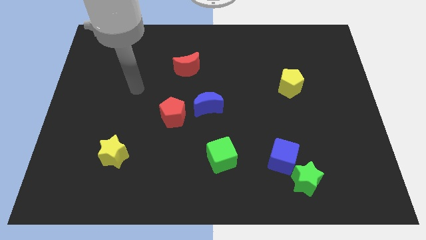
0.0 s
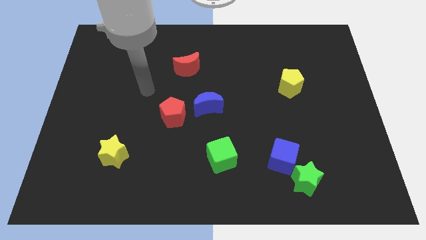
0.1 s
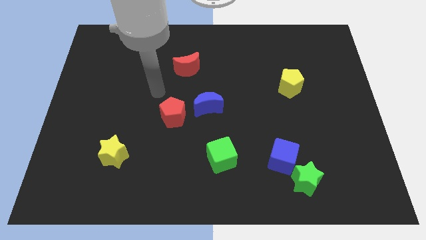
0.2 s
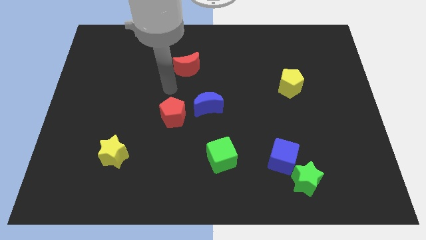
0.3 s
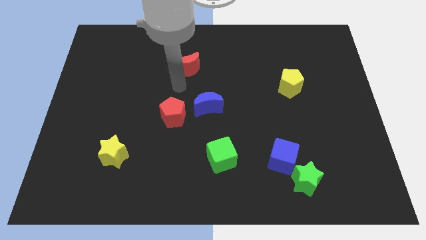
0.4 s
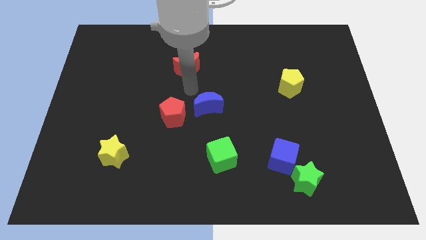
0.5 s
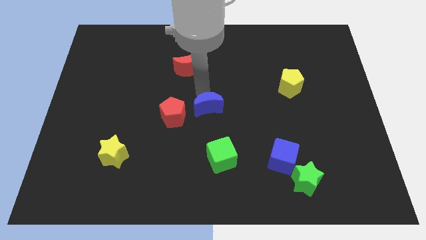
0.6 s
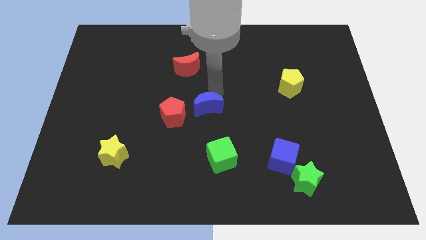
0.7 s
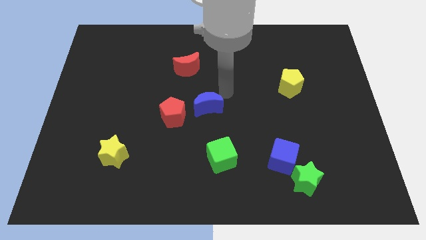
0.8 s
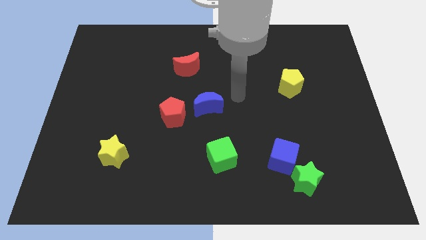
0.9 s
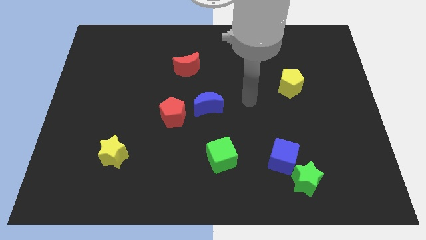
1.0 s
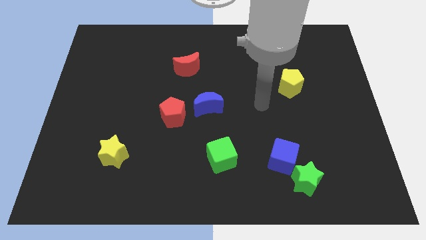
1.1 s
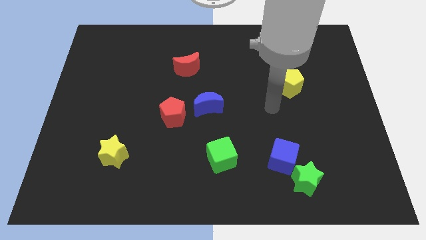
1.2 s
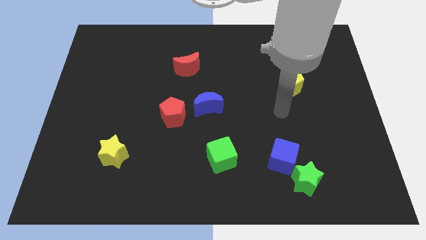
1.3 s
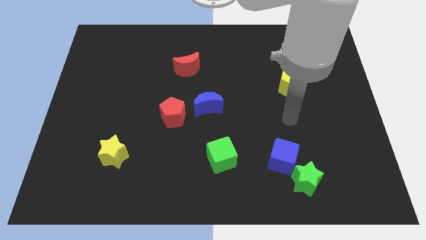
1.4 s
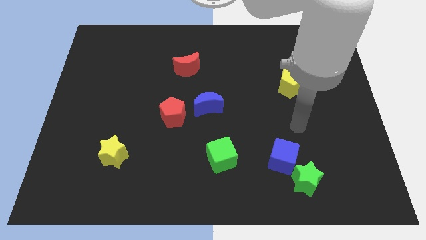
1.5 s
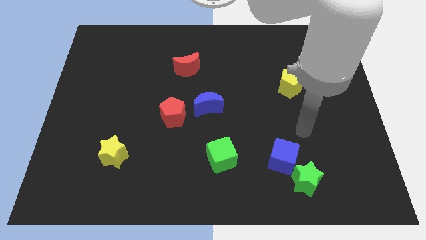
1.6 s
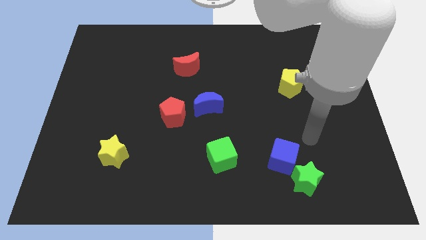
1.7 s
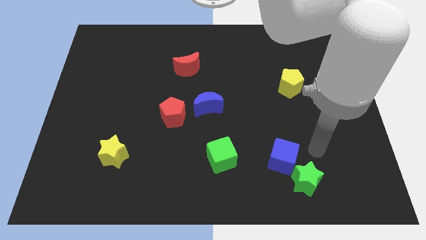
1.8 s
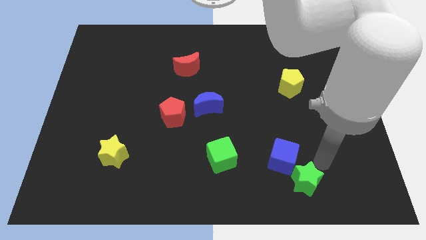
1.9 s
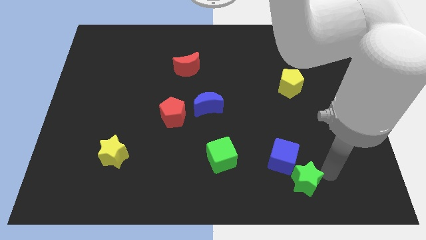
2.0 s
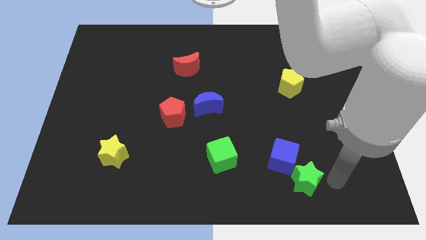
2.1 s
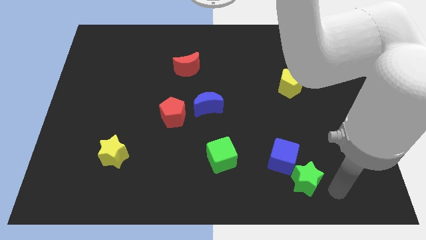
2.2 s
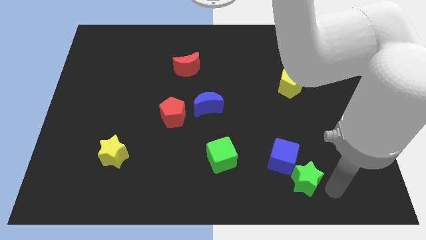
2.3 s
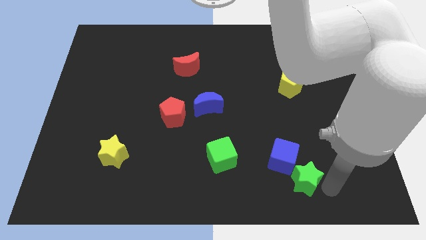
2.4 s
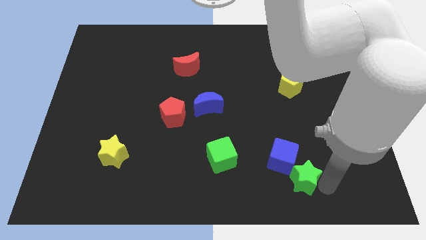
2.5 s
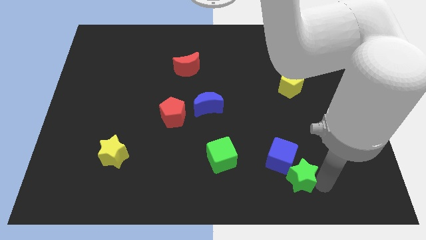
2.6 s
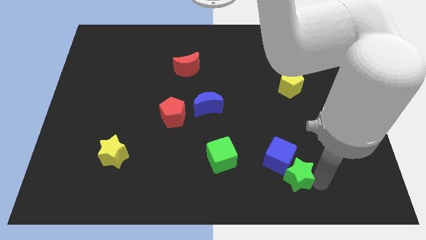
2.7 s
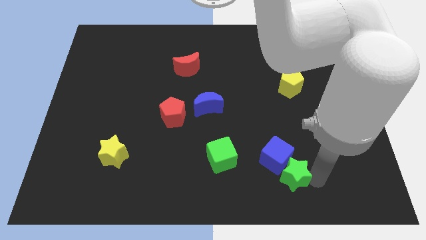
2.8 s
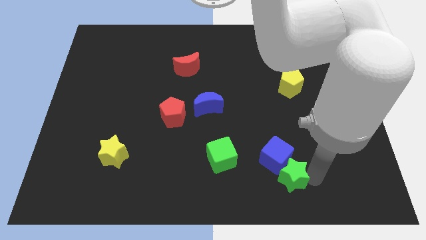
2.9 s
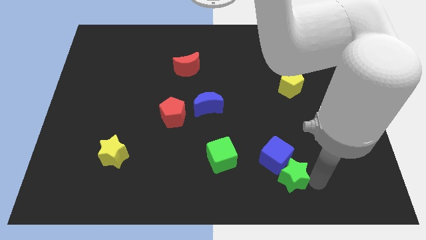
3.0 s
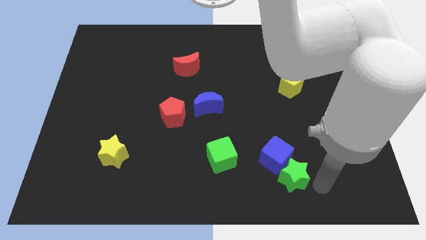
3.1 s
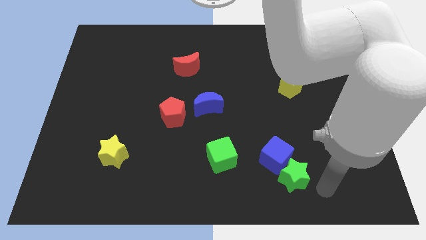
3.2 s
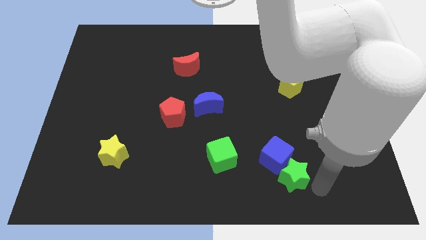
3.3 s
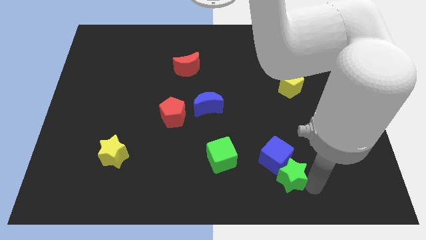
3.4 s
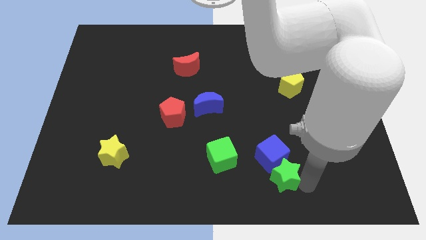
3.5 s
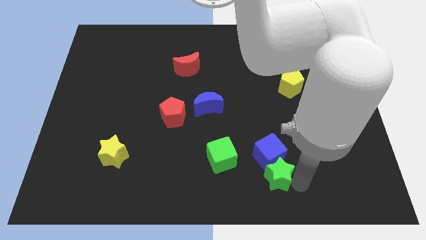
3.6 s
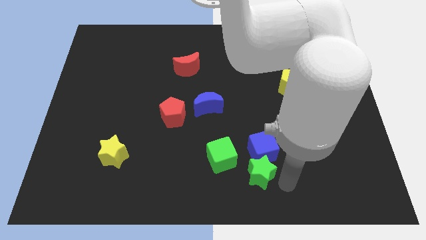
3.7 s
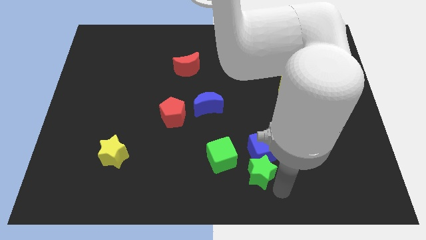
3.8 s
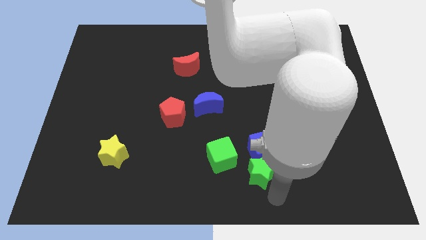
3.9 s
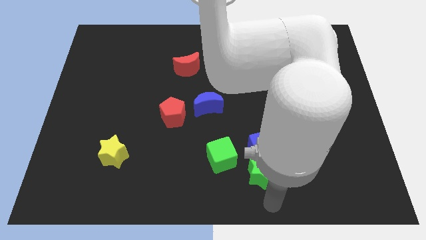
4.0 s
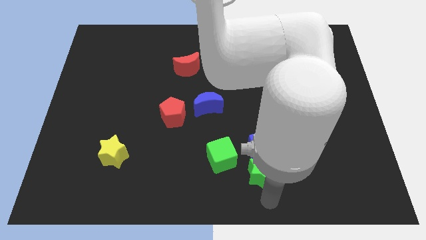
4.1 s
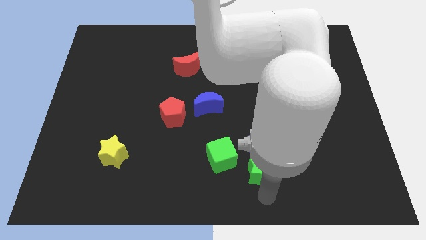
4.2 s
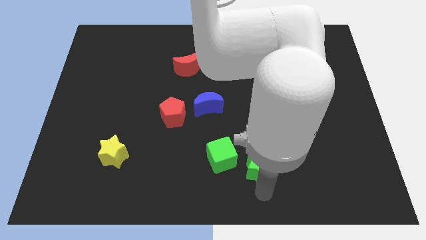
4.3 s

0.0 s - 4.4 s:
slide the green star somewhat up and then left

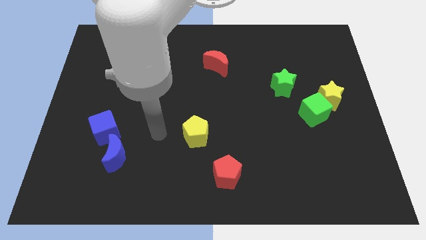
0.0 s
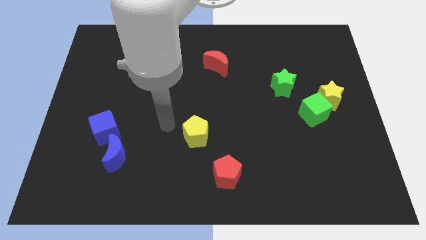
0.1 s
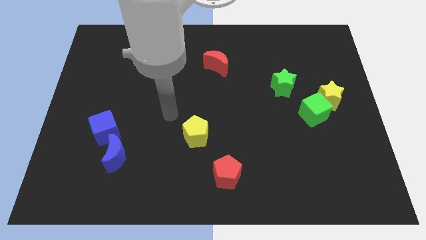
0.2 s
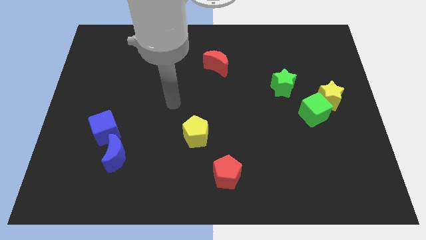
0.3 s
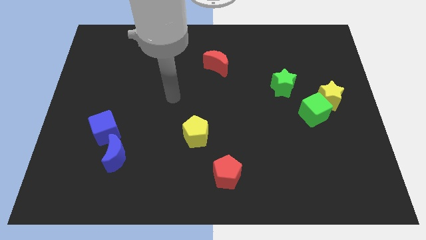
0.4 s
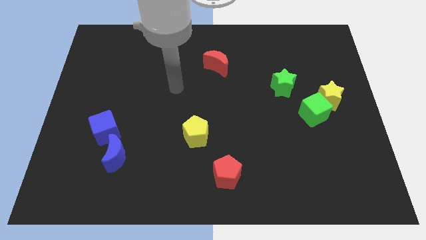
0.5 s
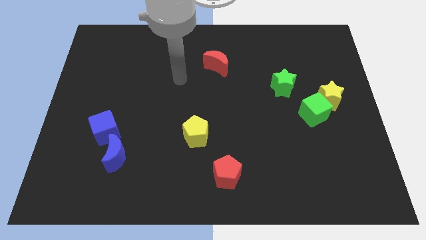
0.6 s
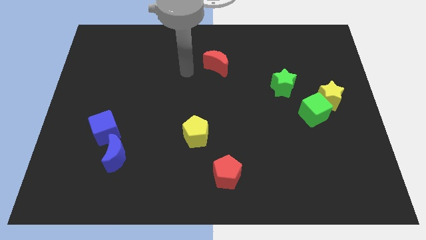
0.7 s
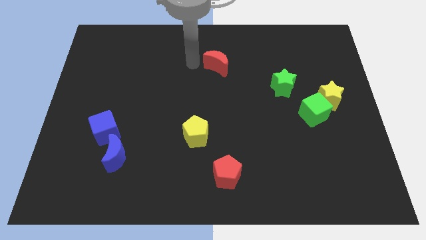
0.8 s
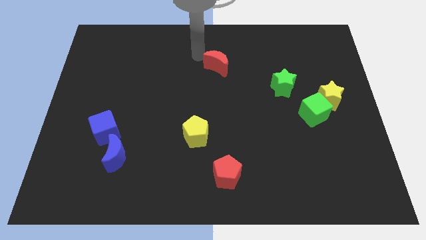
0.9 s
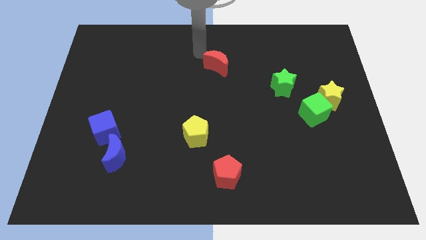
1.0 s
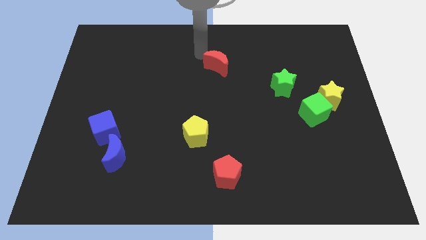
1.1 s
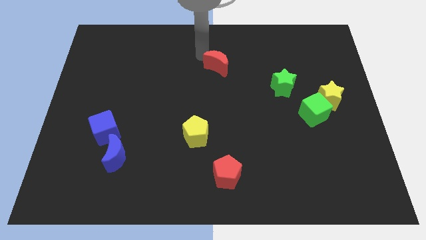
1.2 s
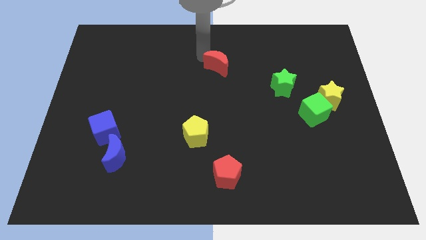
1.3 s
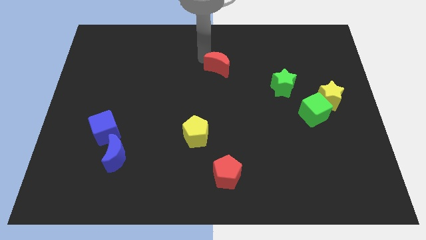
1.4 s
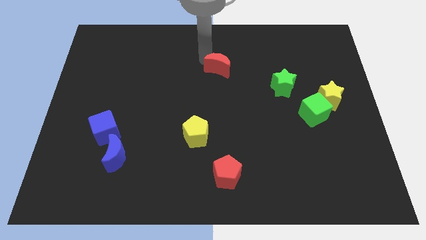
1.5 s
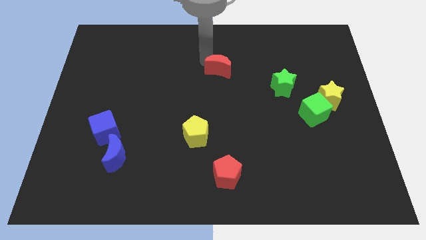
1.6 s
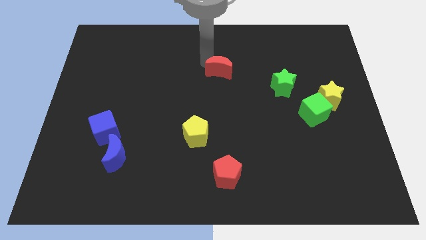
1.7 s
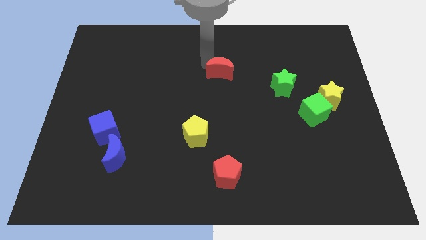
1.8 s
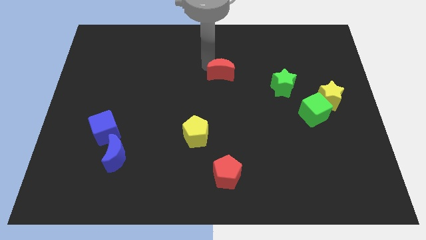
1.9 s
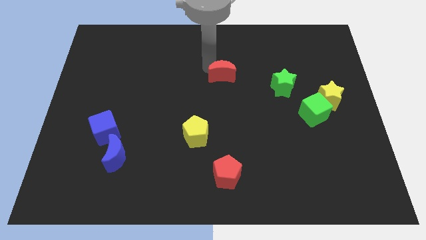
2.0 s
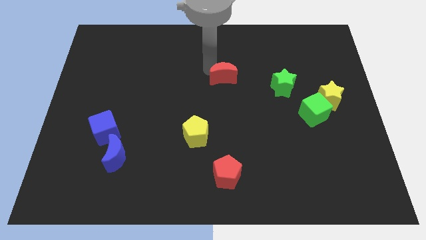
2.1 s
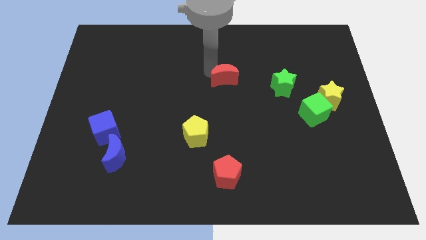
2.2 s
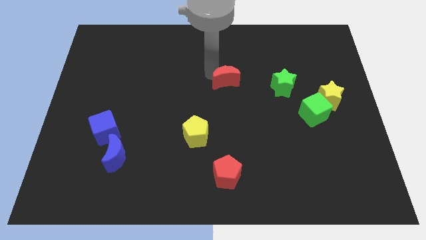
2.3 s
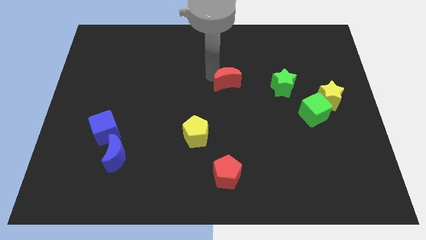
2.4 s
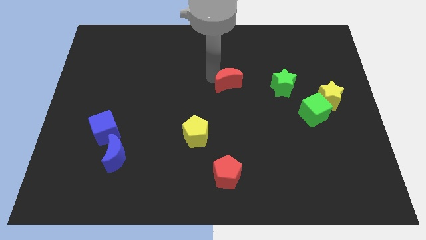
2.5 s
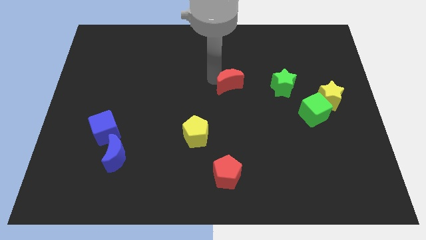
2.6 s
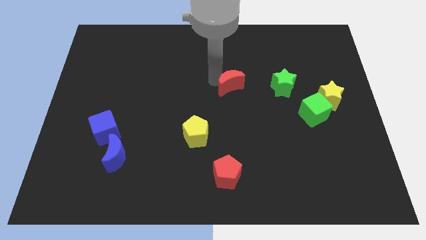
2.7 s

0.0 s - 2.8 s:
slightly slide the red moon downwards and right

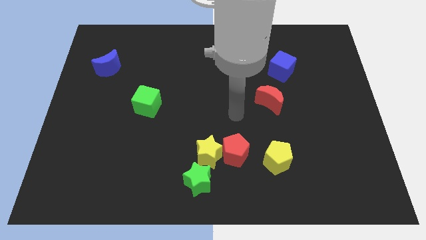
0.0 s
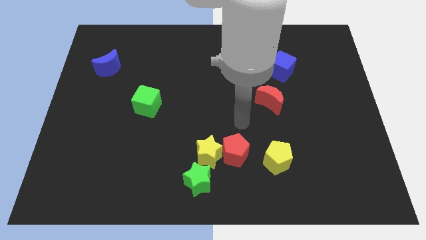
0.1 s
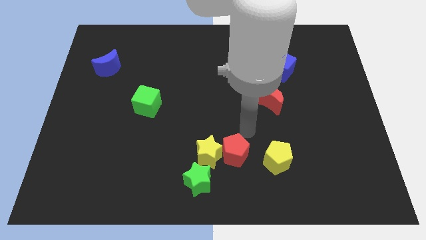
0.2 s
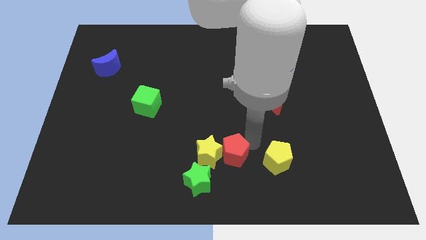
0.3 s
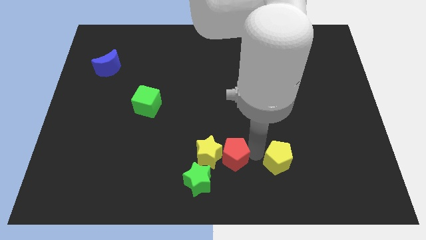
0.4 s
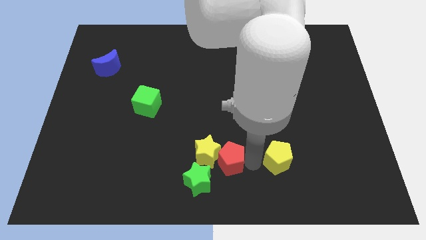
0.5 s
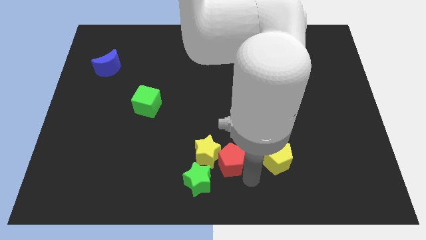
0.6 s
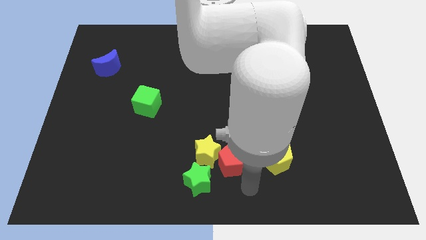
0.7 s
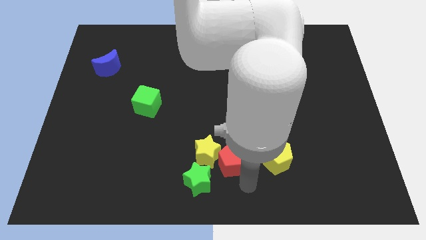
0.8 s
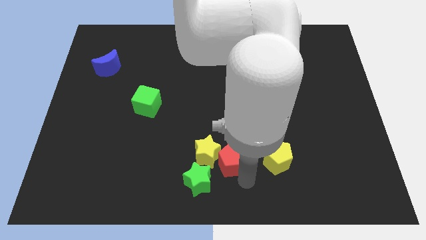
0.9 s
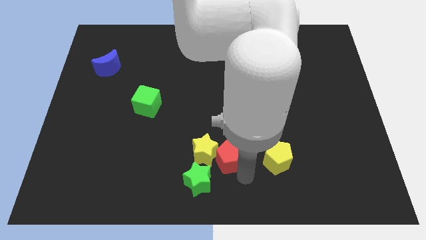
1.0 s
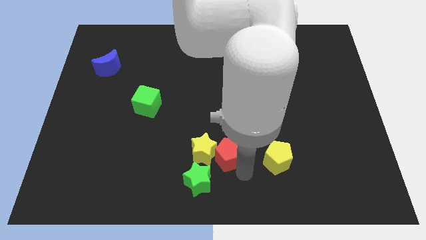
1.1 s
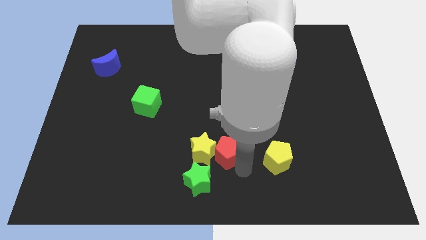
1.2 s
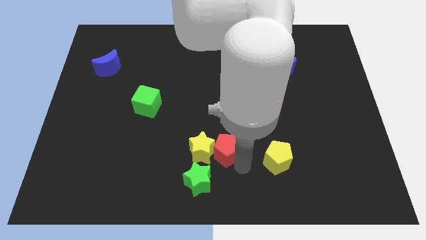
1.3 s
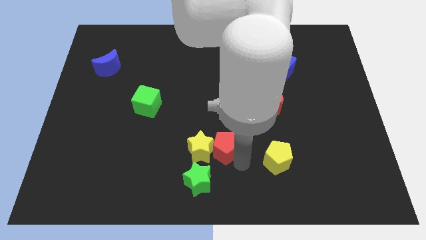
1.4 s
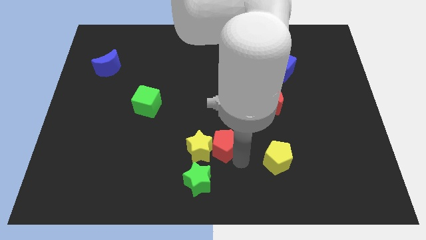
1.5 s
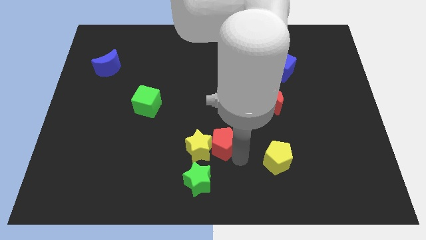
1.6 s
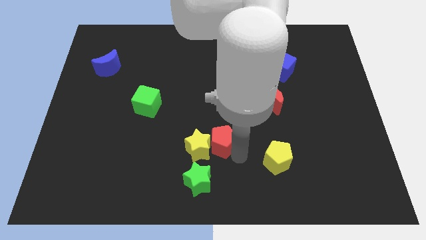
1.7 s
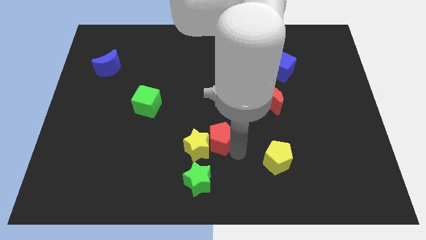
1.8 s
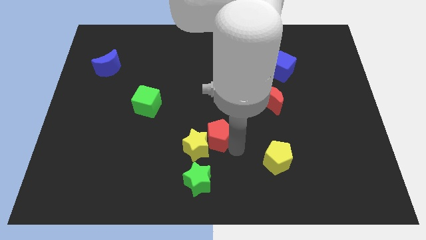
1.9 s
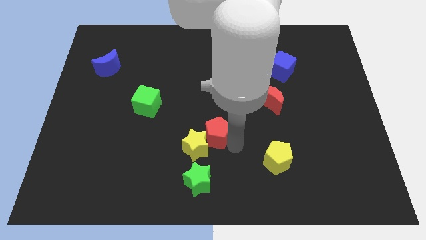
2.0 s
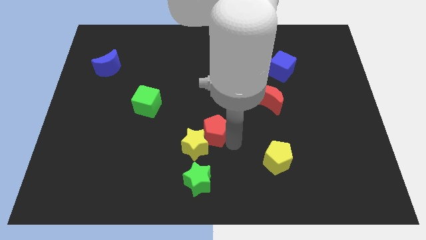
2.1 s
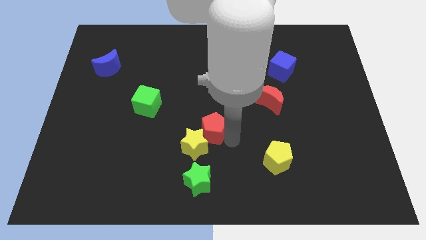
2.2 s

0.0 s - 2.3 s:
slide the red pentagon up and left diagonally slightly
